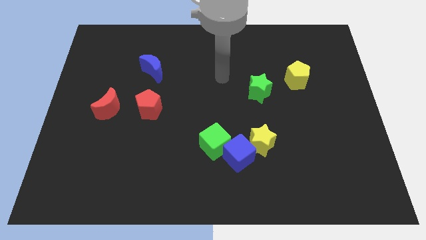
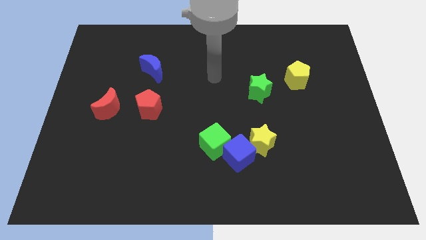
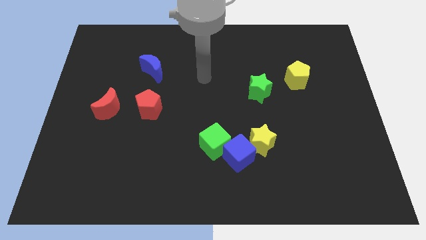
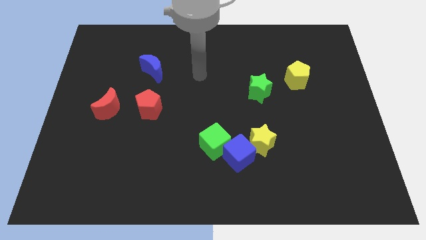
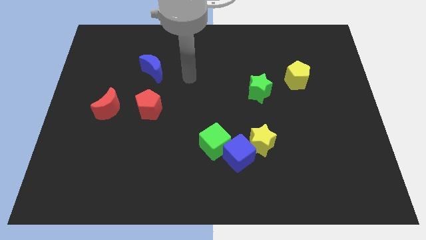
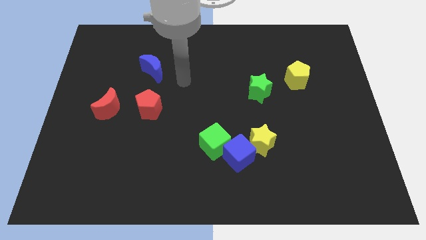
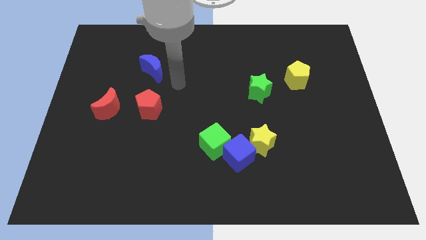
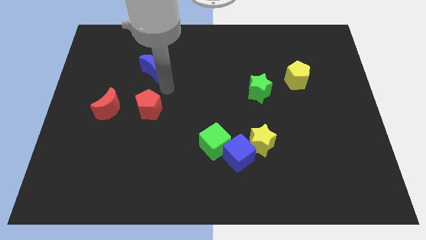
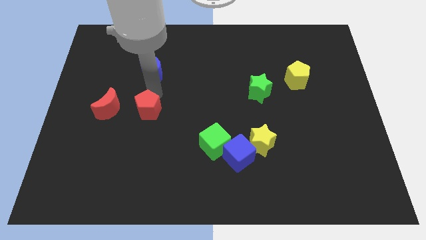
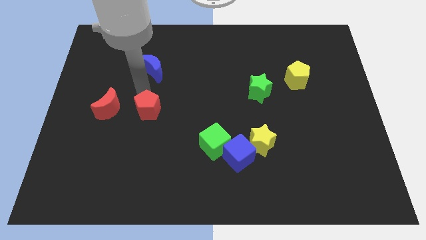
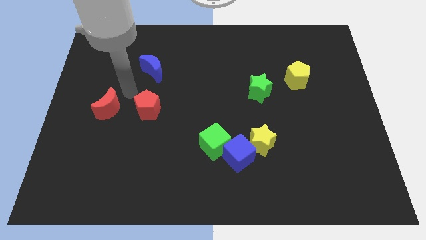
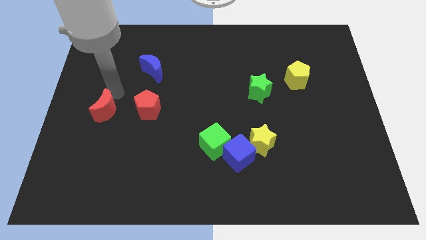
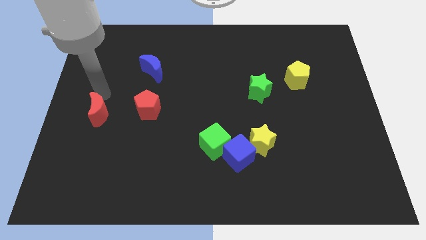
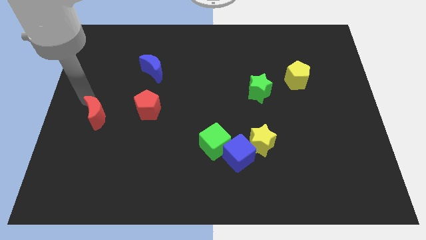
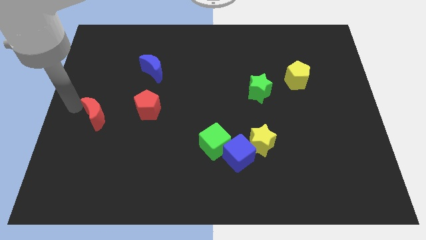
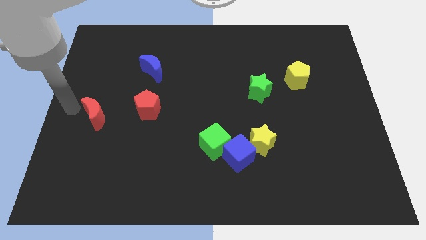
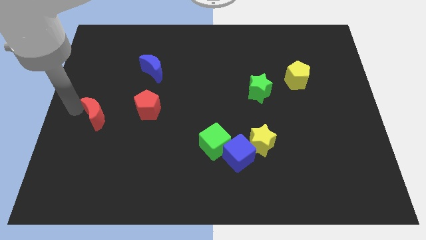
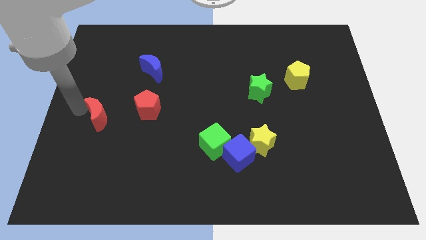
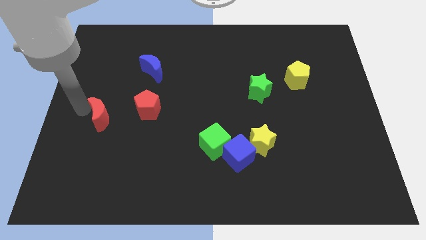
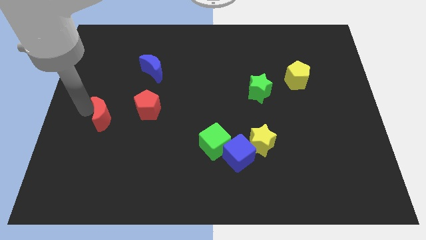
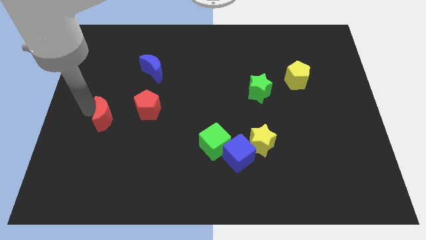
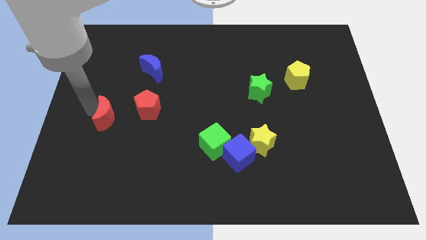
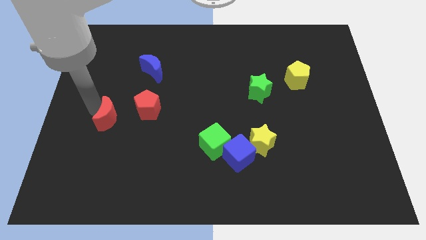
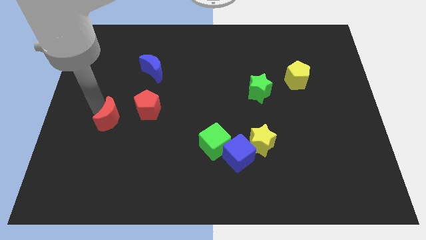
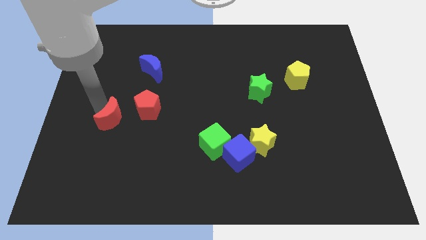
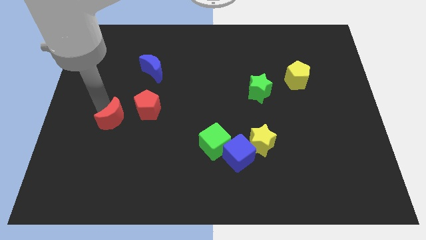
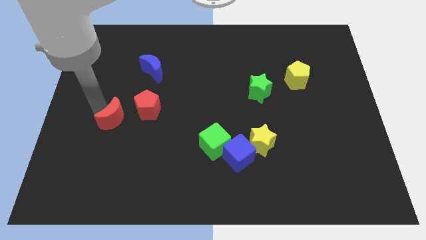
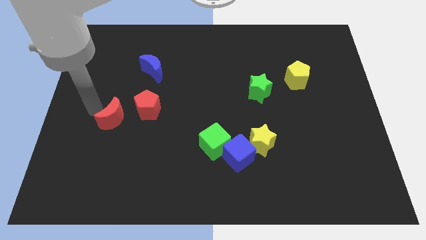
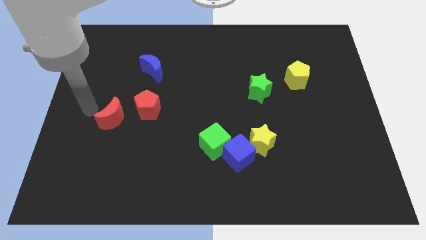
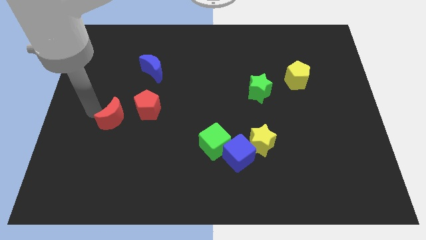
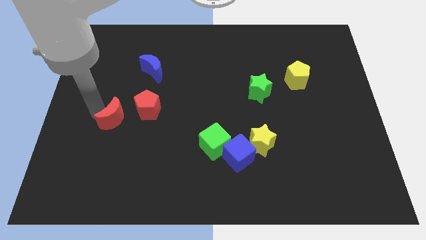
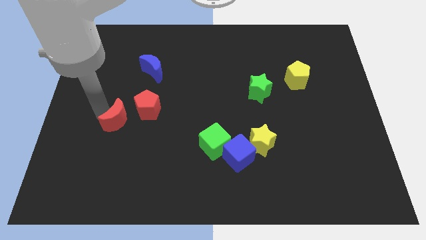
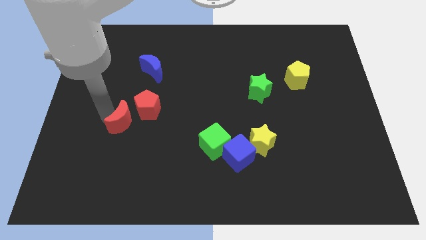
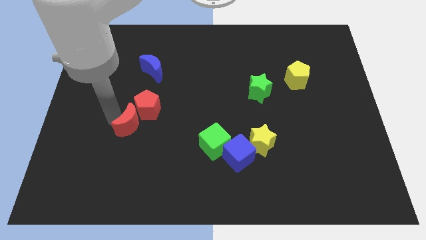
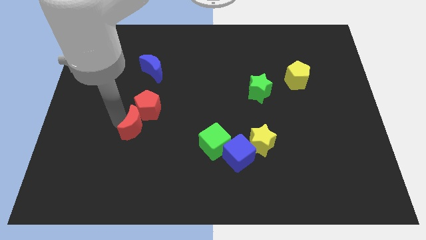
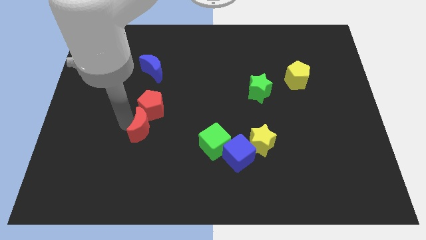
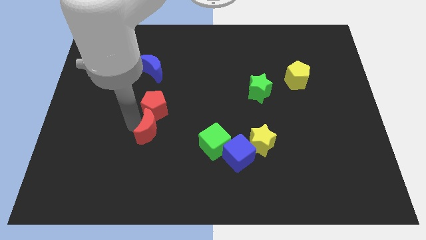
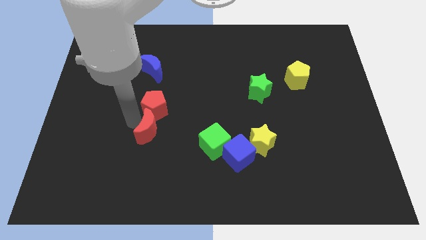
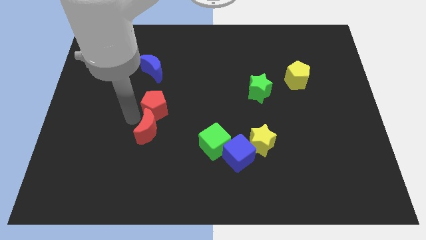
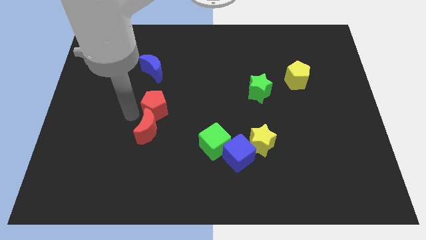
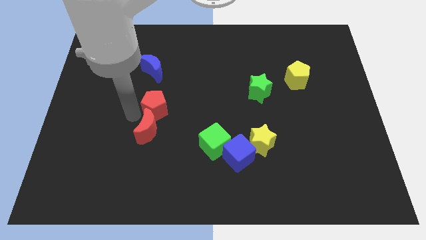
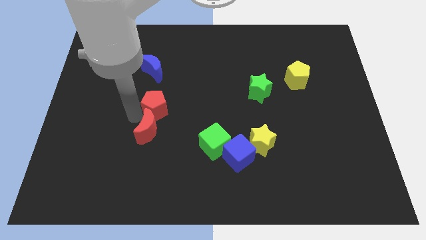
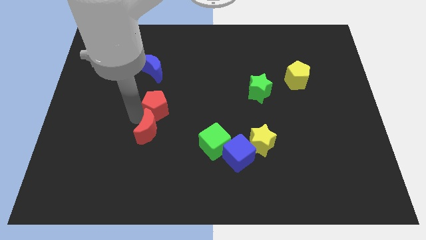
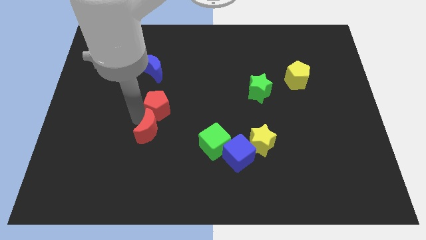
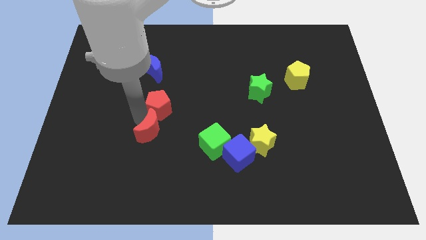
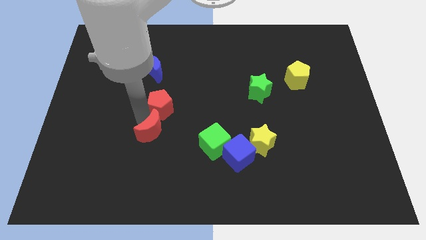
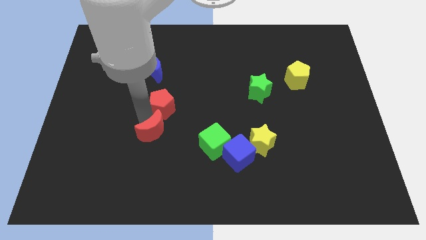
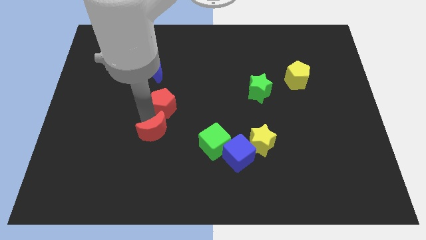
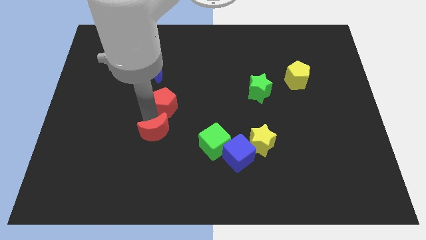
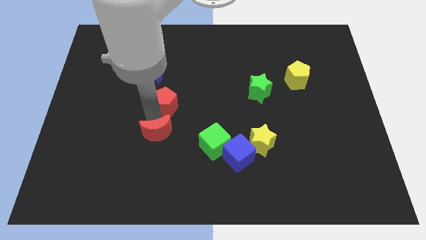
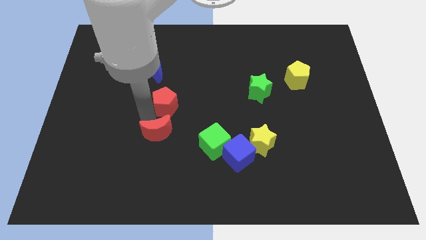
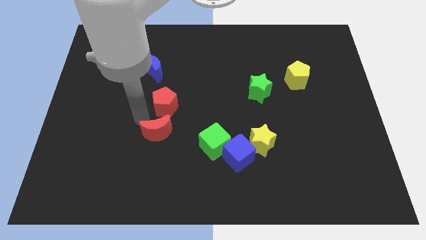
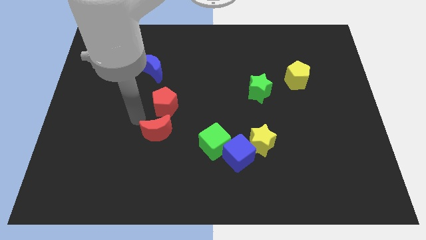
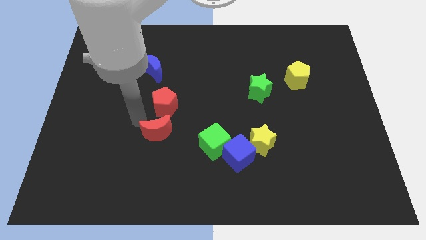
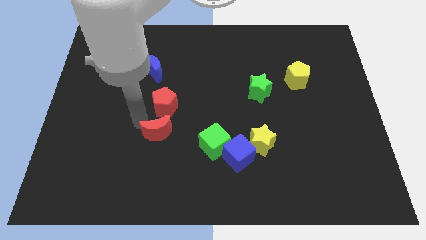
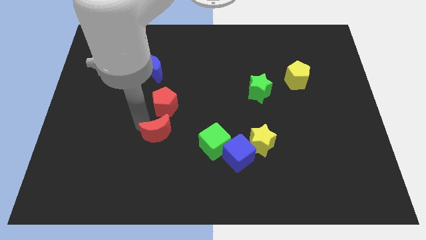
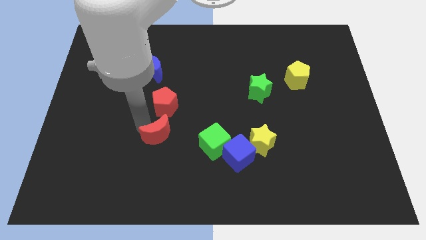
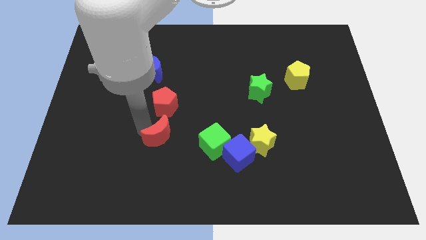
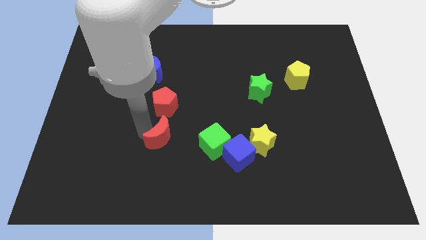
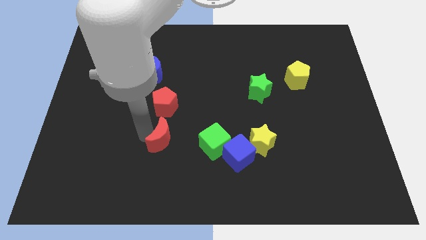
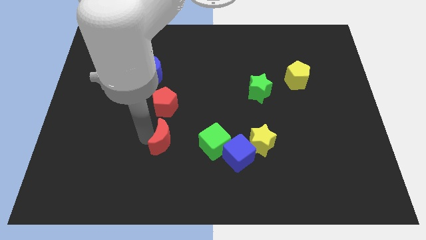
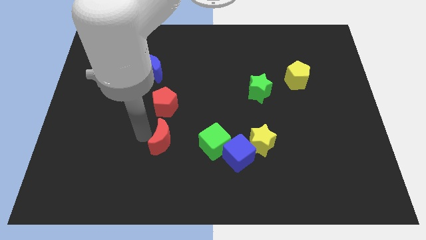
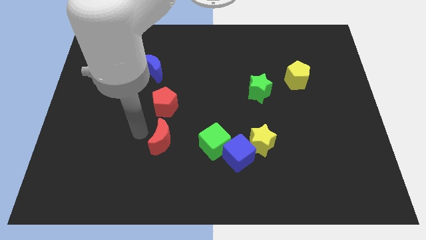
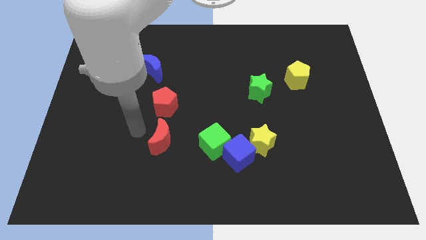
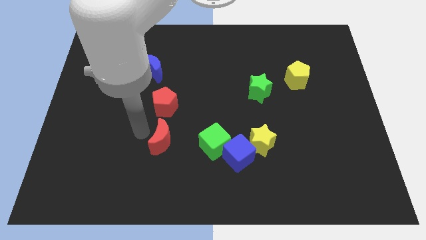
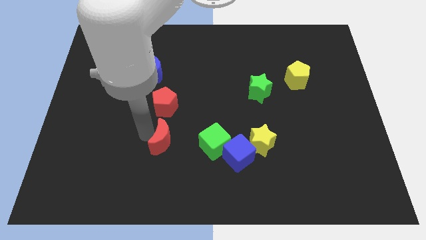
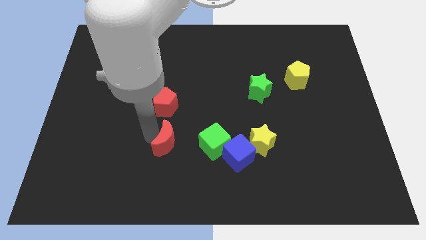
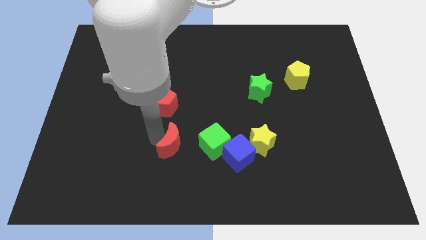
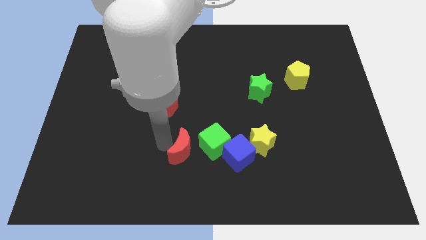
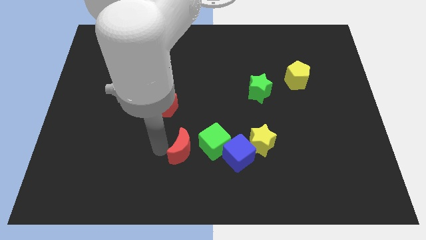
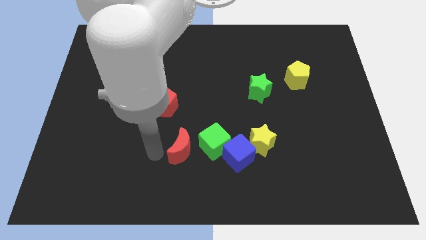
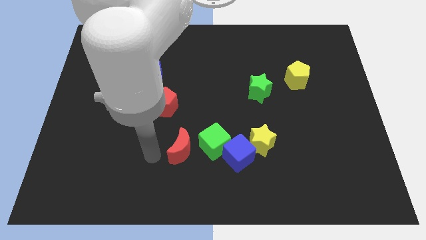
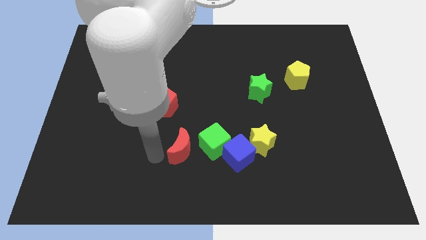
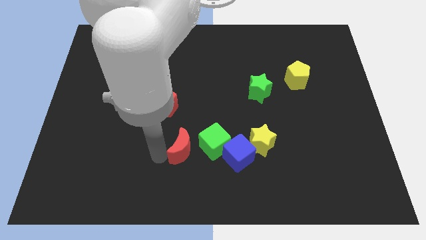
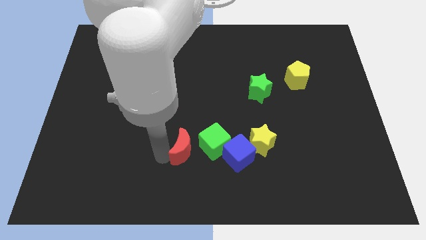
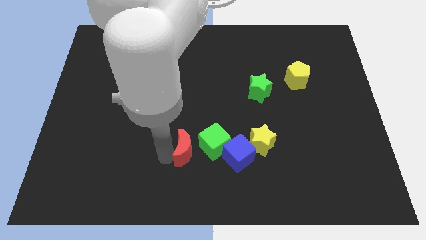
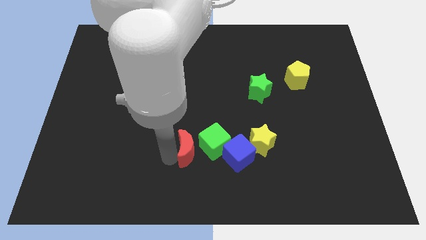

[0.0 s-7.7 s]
move the red moon to the green cube
